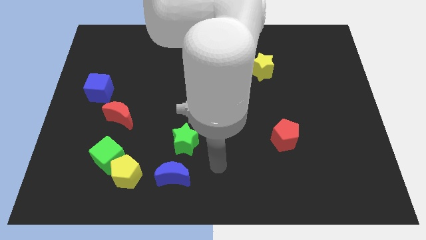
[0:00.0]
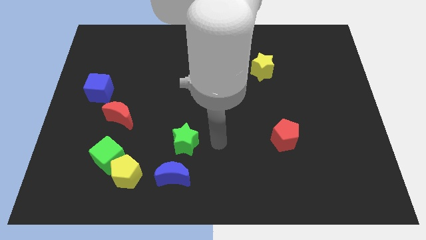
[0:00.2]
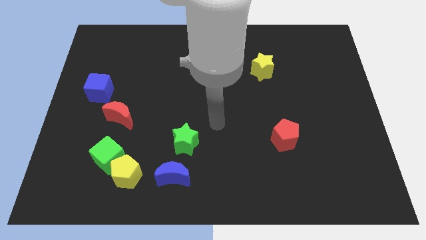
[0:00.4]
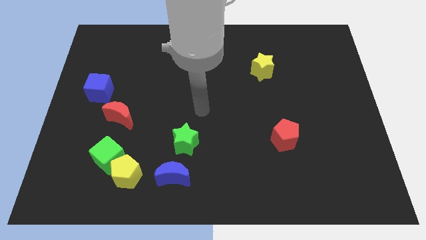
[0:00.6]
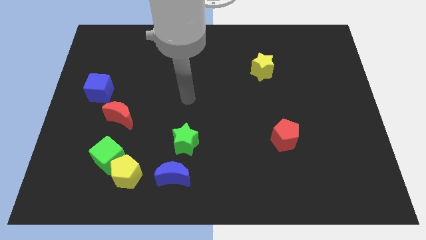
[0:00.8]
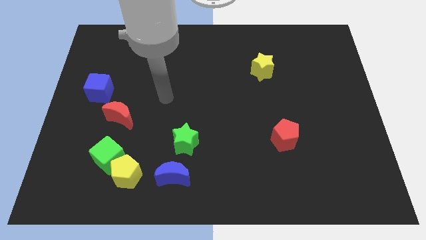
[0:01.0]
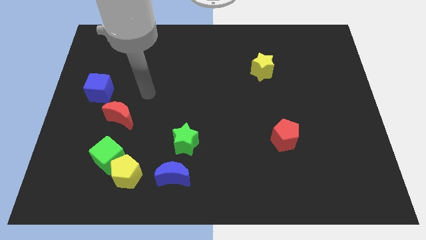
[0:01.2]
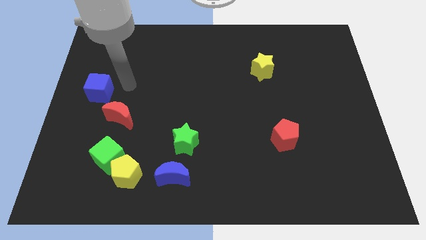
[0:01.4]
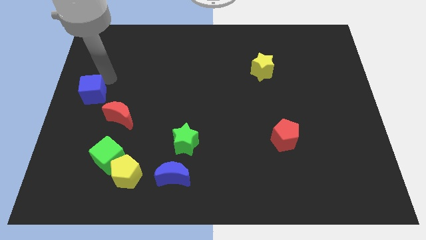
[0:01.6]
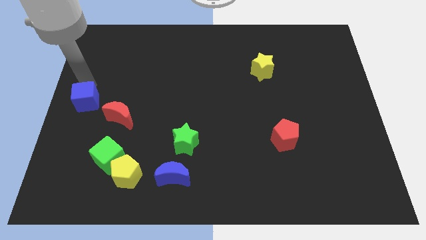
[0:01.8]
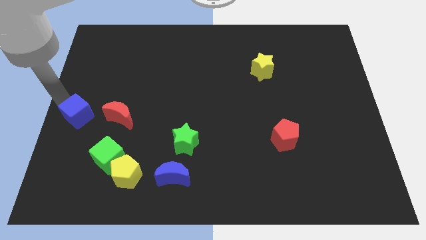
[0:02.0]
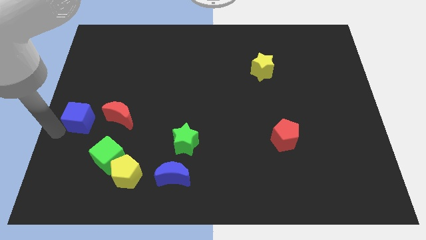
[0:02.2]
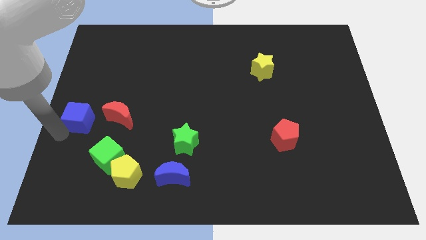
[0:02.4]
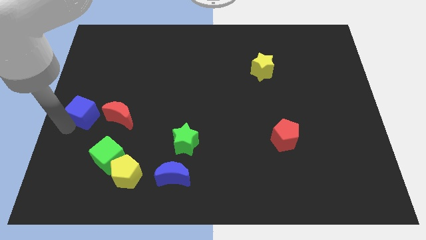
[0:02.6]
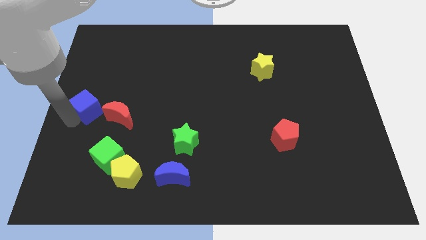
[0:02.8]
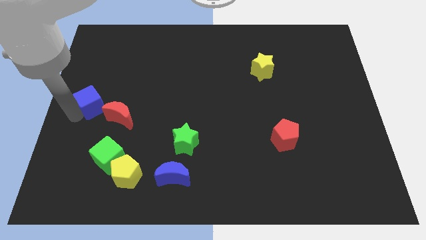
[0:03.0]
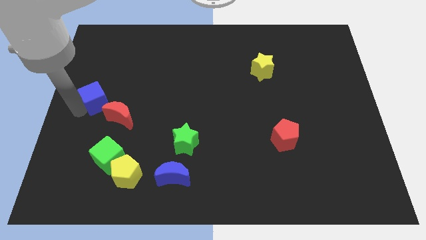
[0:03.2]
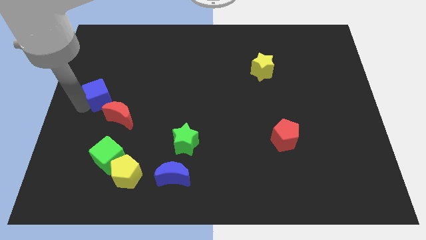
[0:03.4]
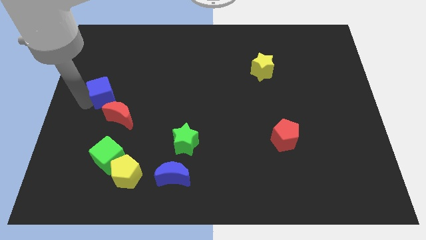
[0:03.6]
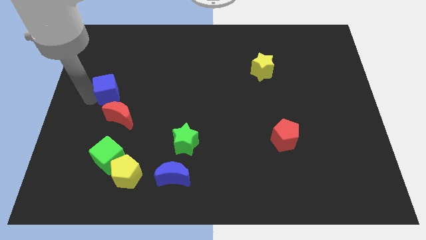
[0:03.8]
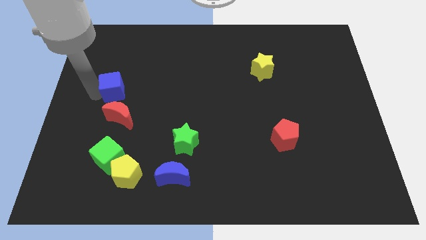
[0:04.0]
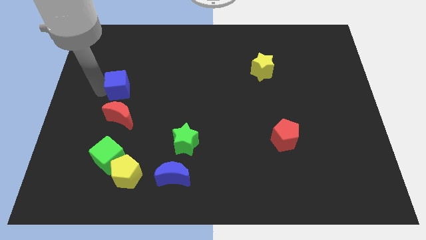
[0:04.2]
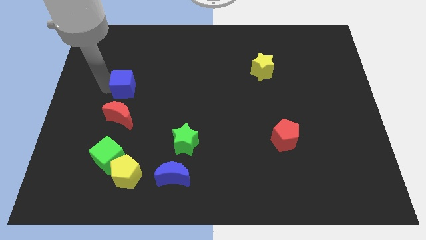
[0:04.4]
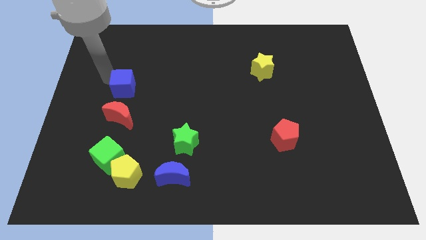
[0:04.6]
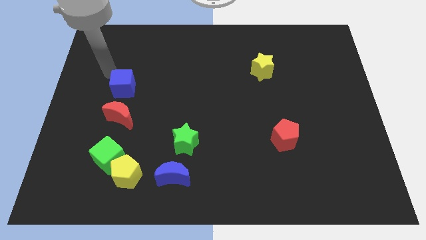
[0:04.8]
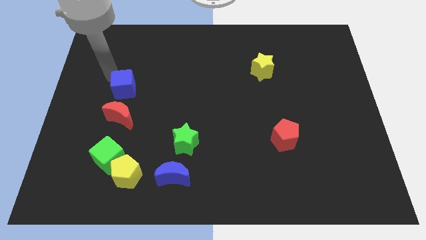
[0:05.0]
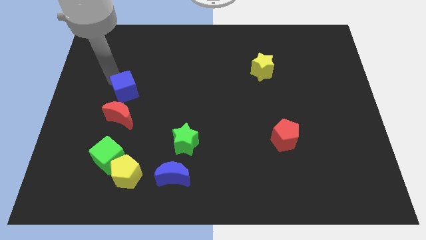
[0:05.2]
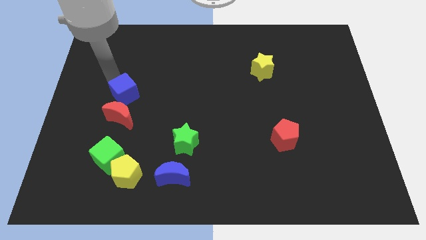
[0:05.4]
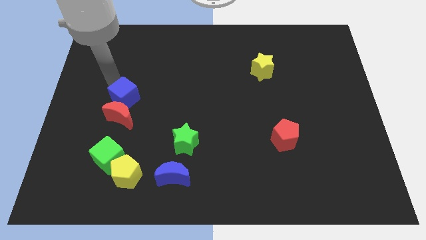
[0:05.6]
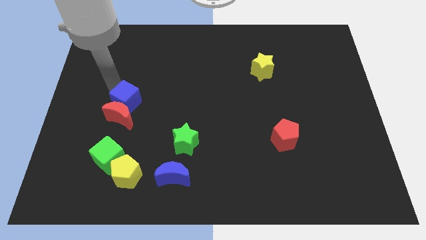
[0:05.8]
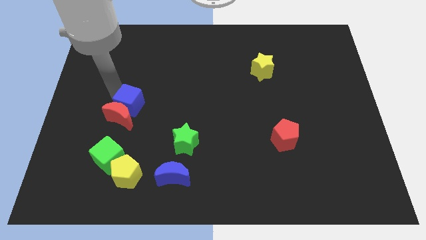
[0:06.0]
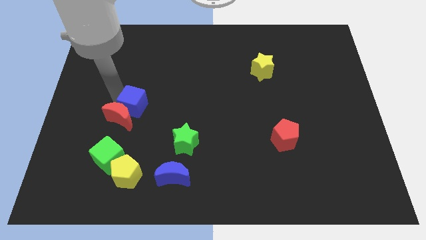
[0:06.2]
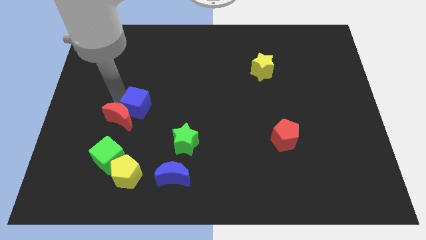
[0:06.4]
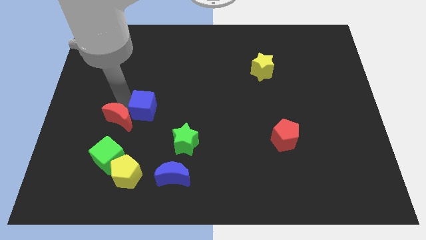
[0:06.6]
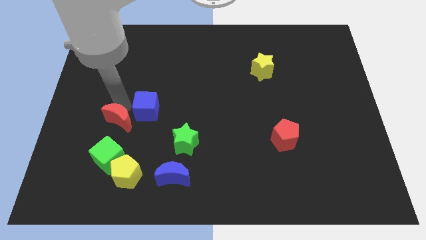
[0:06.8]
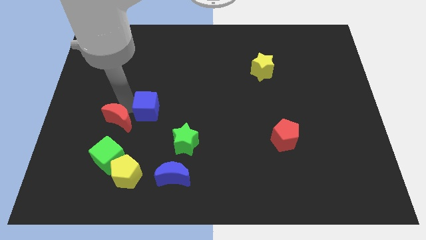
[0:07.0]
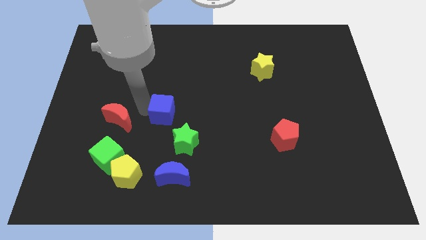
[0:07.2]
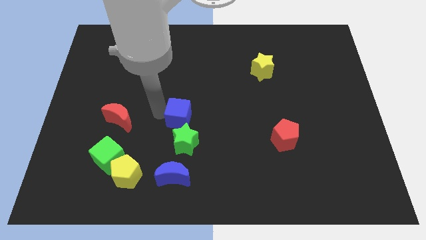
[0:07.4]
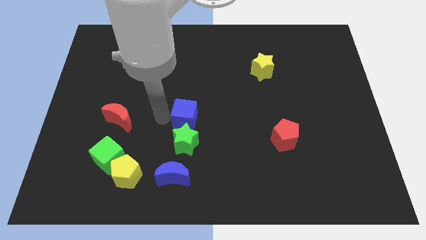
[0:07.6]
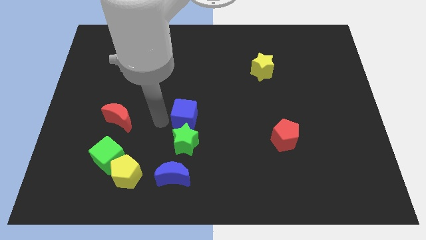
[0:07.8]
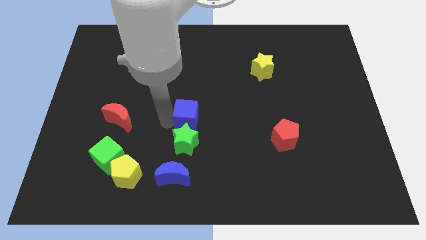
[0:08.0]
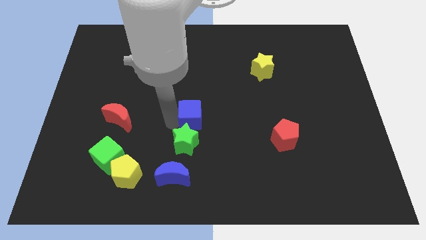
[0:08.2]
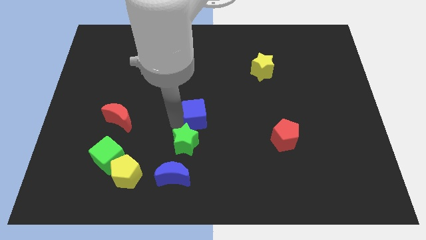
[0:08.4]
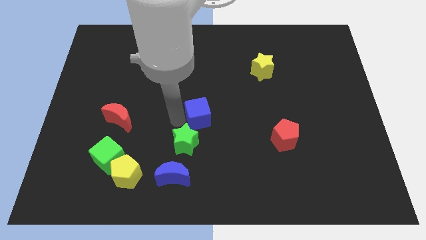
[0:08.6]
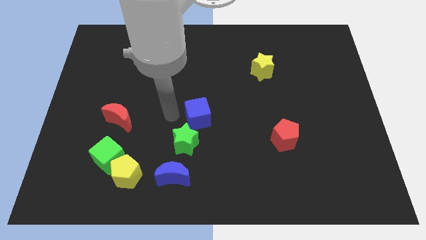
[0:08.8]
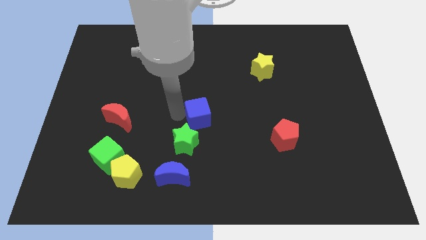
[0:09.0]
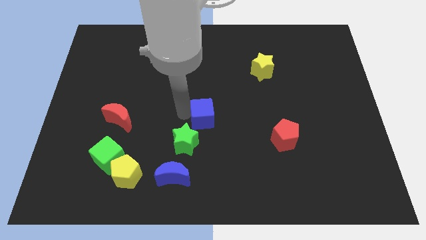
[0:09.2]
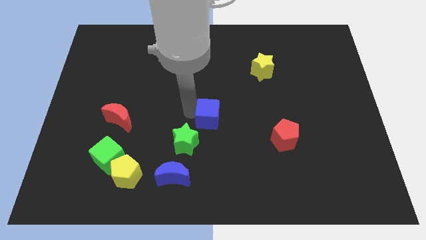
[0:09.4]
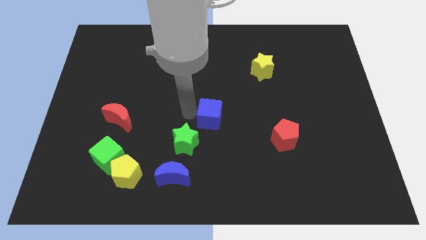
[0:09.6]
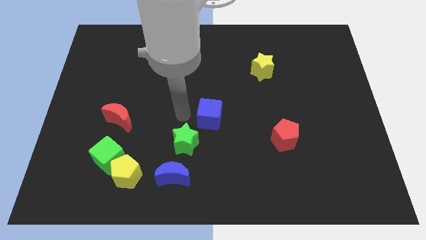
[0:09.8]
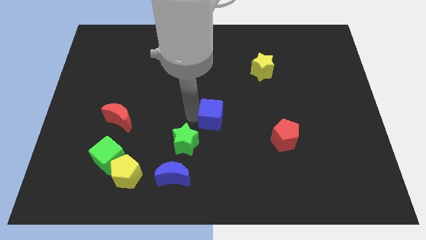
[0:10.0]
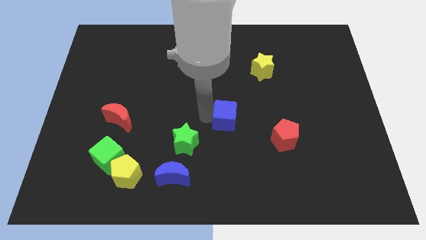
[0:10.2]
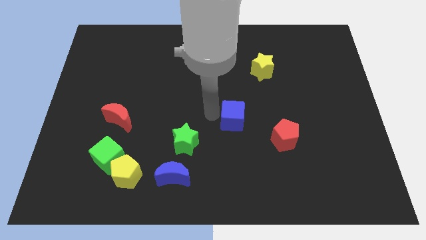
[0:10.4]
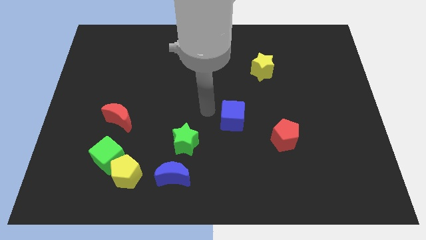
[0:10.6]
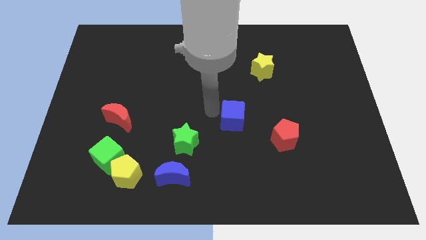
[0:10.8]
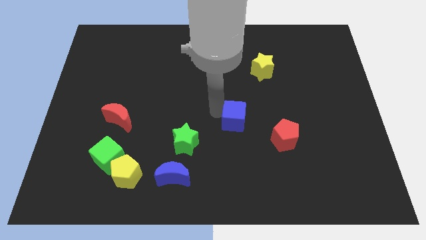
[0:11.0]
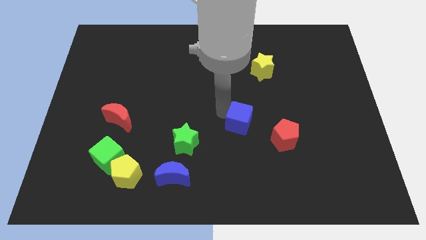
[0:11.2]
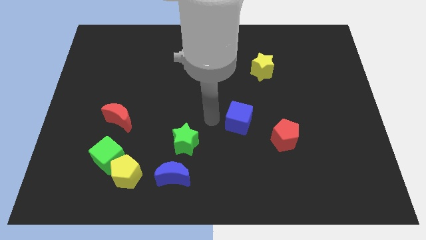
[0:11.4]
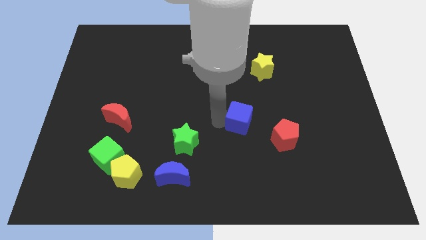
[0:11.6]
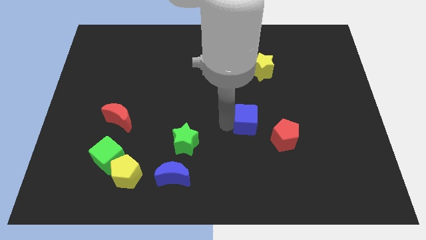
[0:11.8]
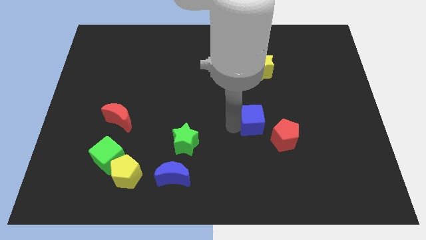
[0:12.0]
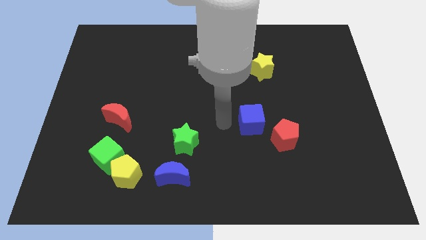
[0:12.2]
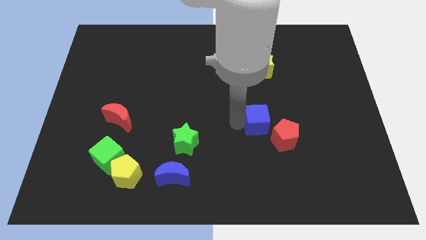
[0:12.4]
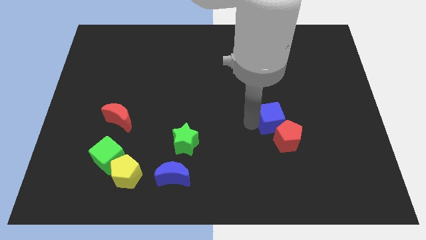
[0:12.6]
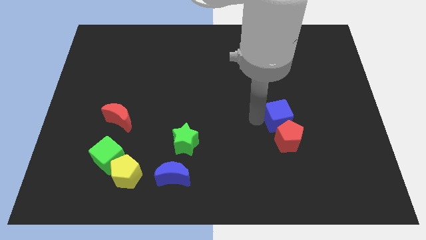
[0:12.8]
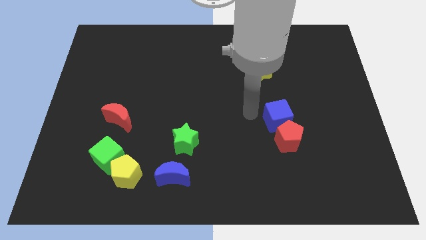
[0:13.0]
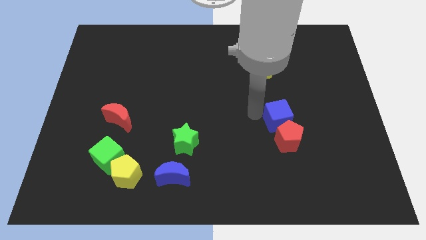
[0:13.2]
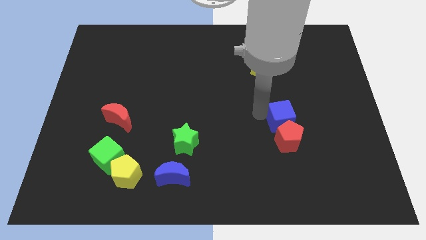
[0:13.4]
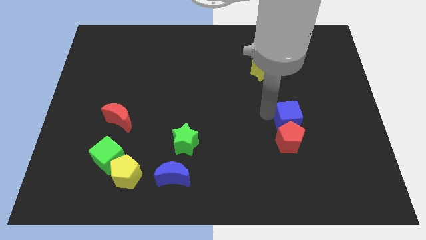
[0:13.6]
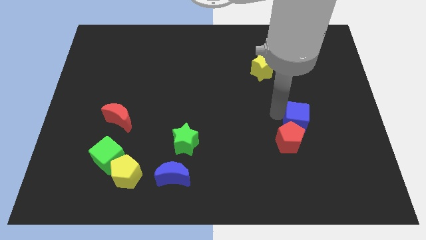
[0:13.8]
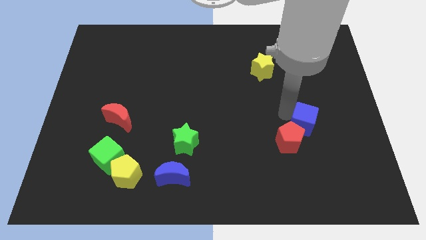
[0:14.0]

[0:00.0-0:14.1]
move the blue cube just right of the red pentagon
